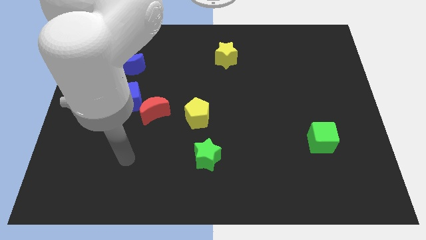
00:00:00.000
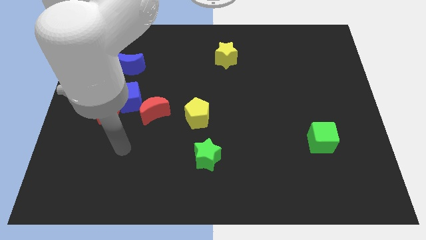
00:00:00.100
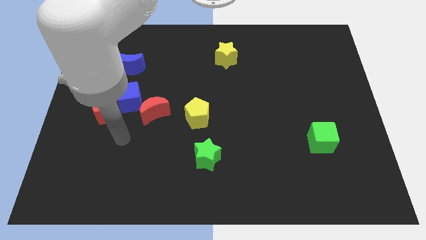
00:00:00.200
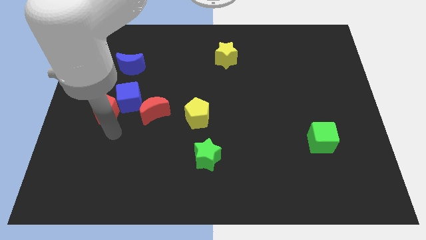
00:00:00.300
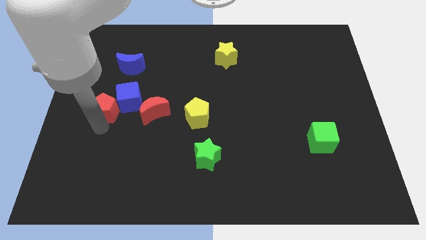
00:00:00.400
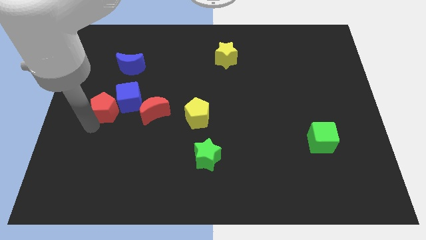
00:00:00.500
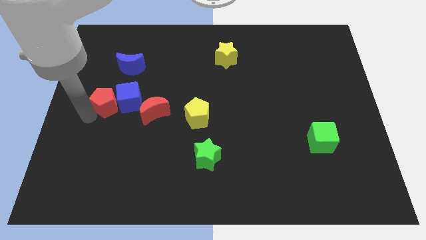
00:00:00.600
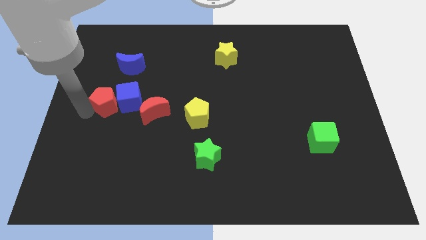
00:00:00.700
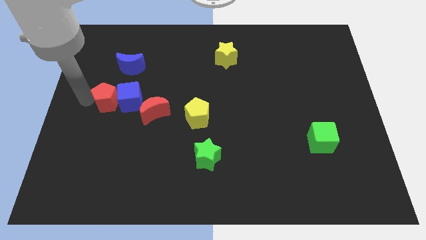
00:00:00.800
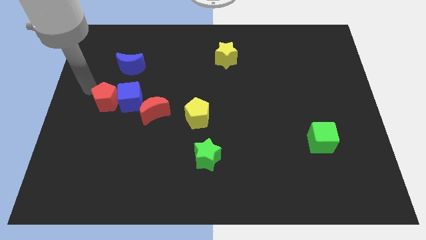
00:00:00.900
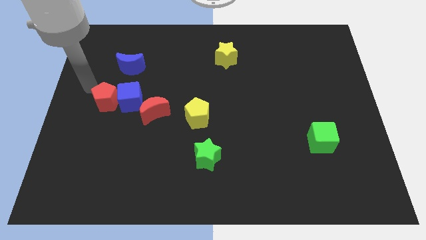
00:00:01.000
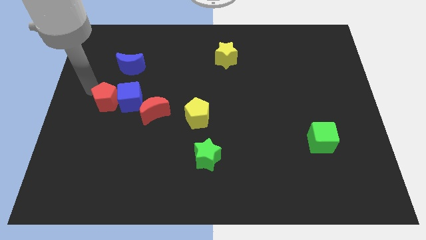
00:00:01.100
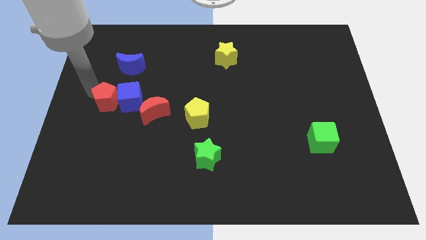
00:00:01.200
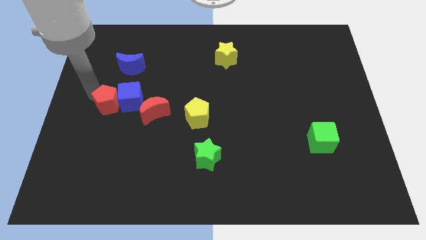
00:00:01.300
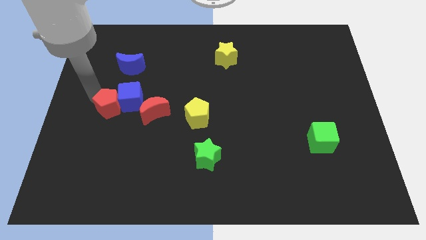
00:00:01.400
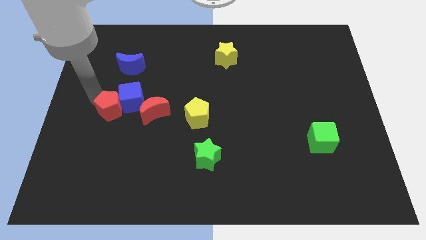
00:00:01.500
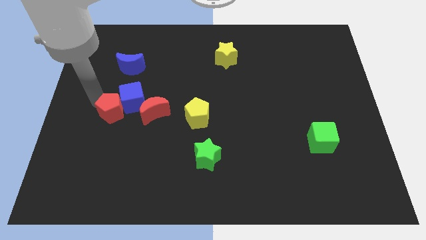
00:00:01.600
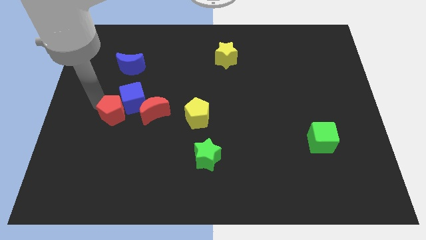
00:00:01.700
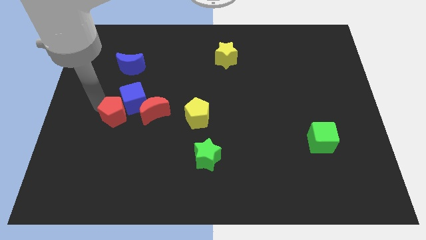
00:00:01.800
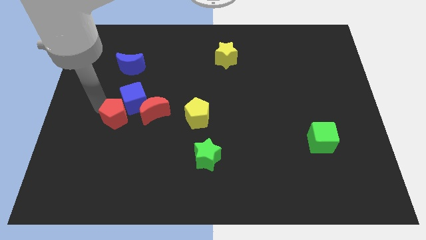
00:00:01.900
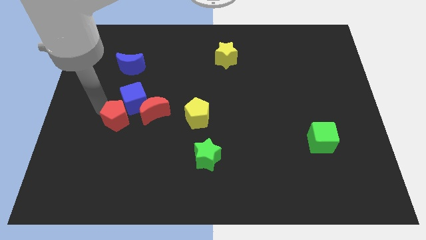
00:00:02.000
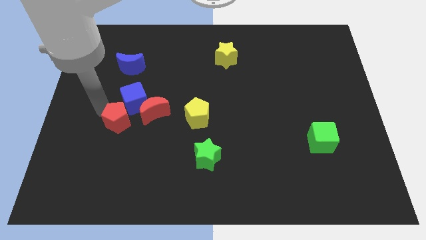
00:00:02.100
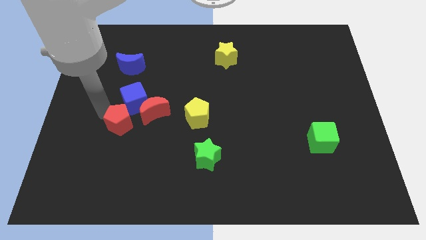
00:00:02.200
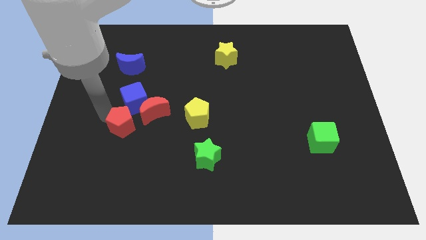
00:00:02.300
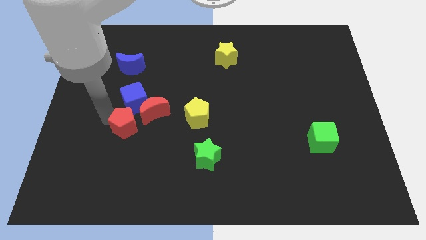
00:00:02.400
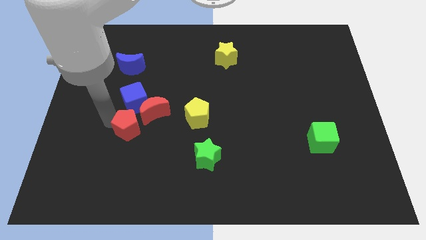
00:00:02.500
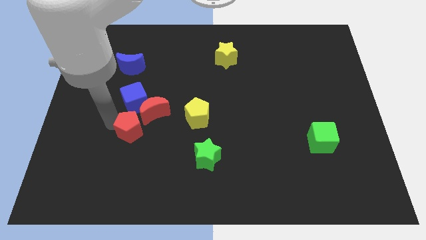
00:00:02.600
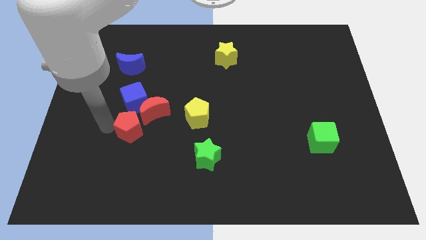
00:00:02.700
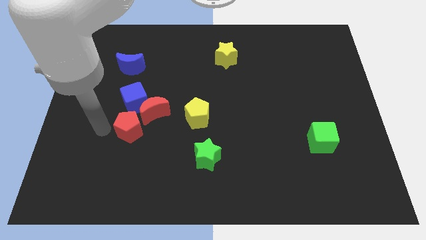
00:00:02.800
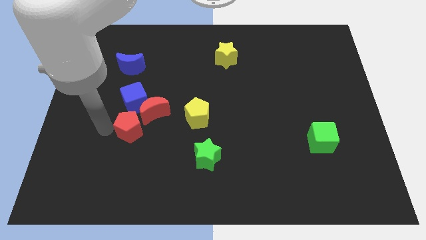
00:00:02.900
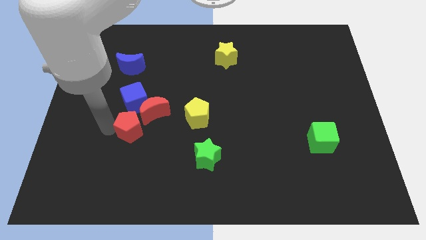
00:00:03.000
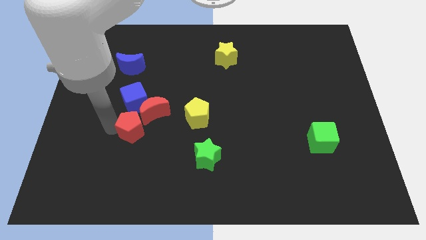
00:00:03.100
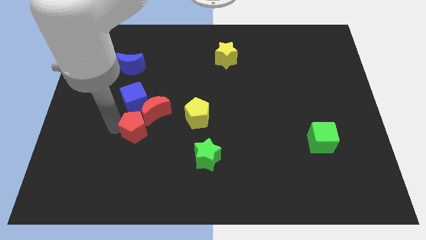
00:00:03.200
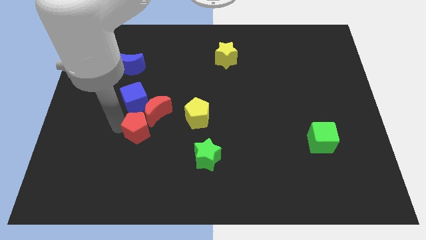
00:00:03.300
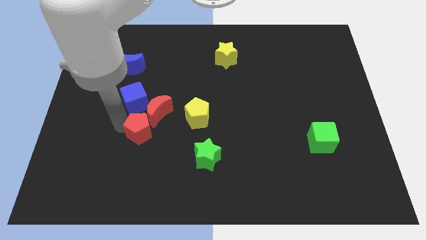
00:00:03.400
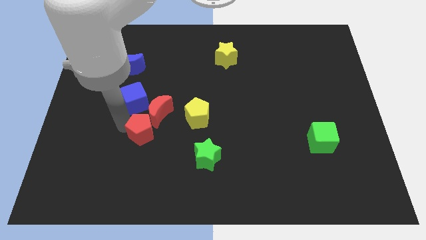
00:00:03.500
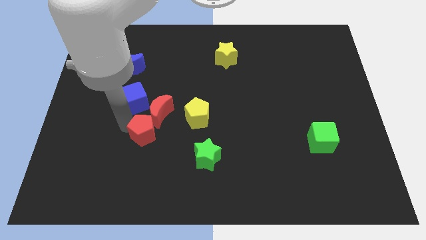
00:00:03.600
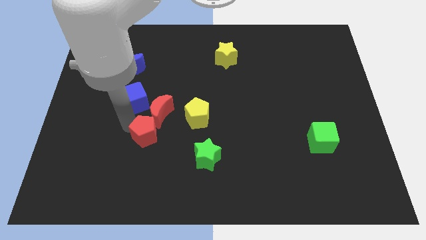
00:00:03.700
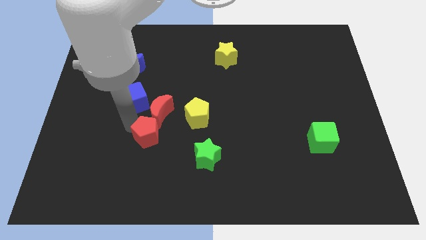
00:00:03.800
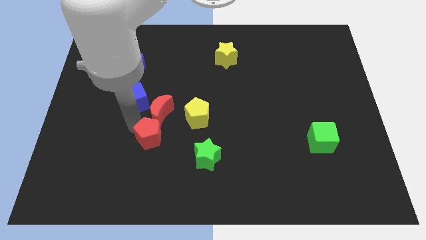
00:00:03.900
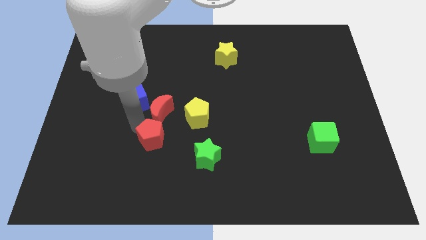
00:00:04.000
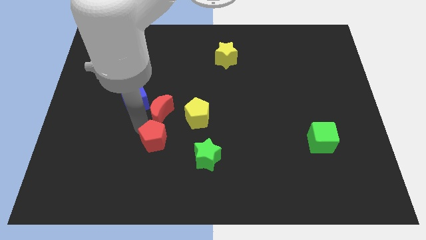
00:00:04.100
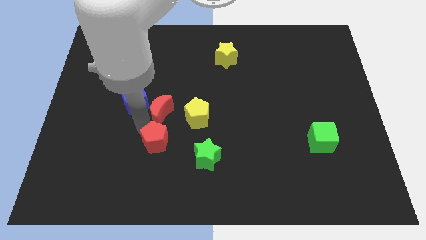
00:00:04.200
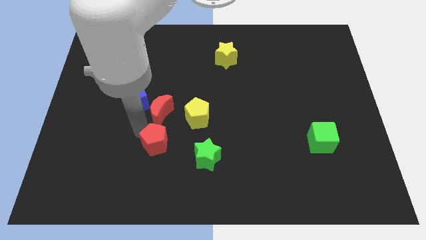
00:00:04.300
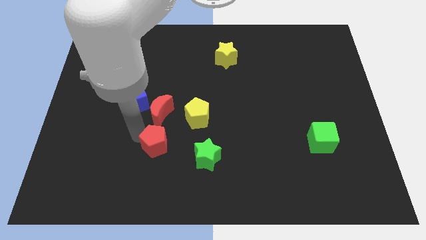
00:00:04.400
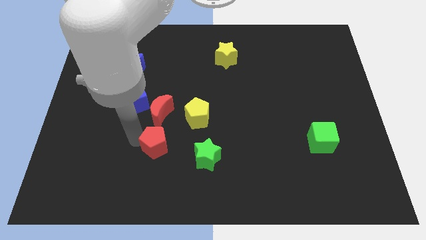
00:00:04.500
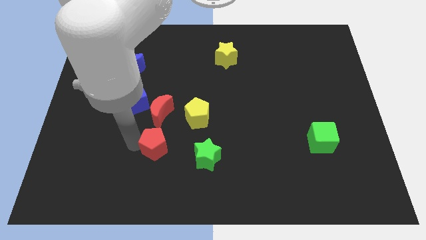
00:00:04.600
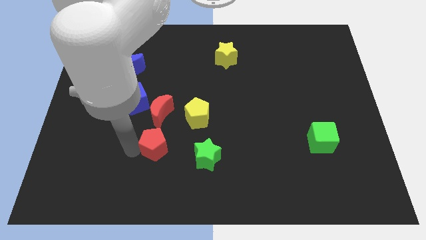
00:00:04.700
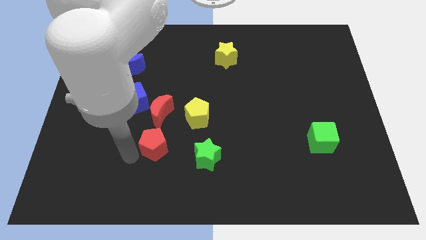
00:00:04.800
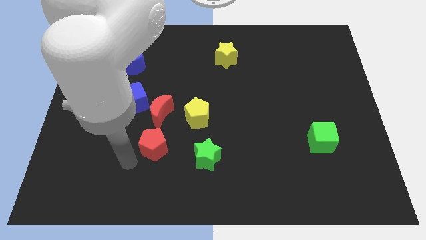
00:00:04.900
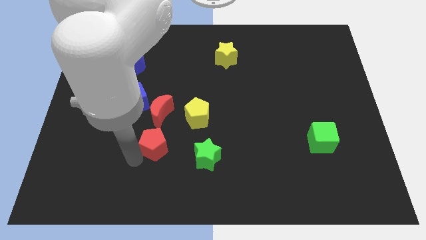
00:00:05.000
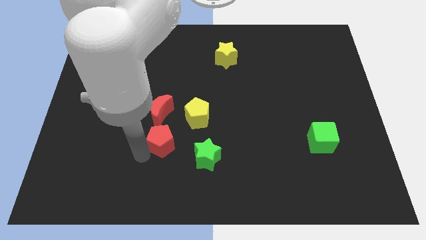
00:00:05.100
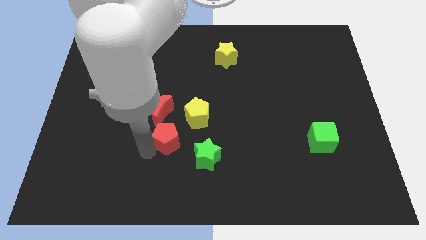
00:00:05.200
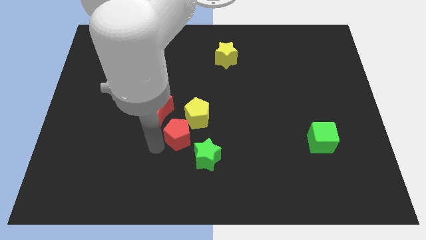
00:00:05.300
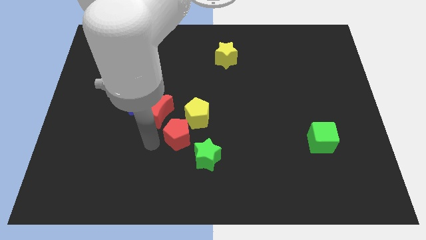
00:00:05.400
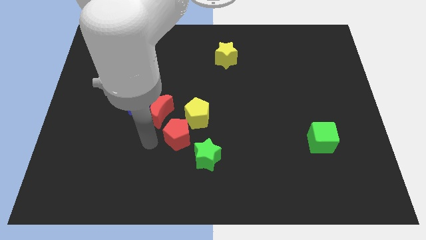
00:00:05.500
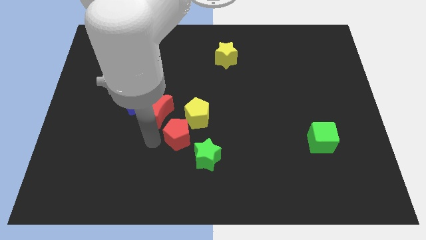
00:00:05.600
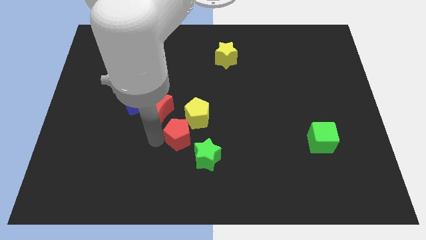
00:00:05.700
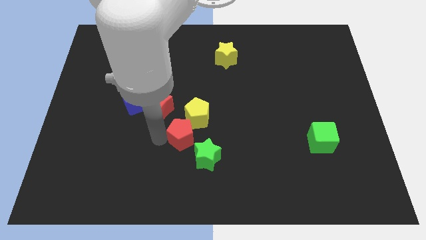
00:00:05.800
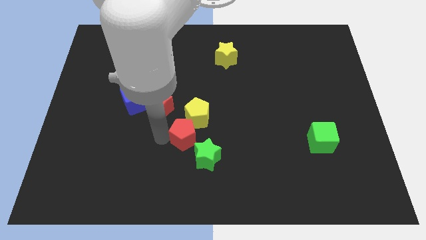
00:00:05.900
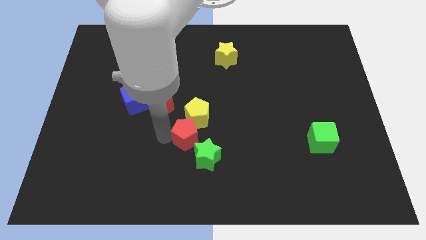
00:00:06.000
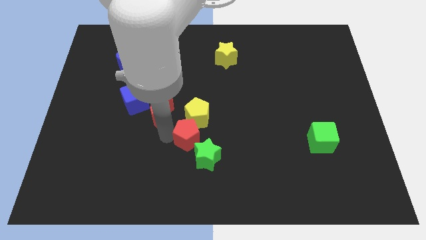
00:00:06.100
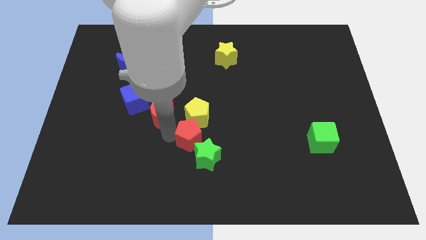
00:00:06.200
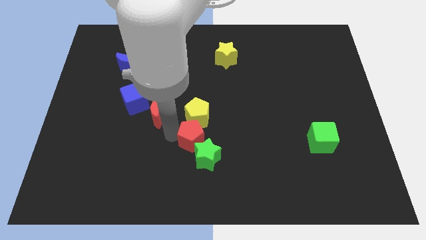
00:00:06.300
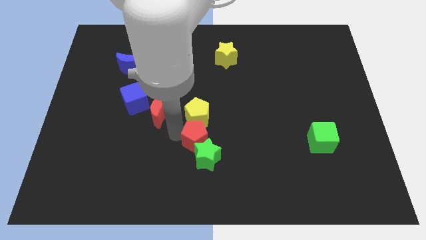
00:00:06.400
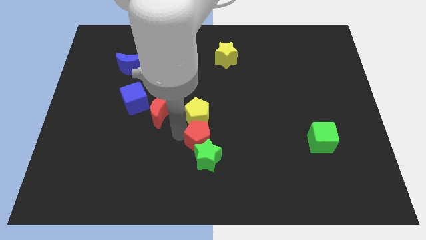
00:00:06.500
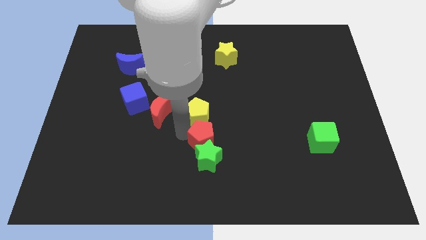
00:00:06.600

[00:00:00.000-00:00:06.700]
move the red pentagon right

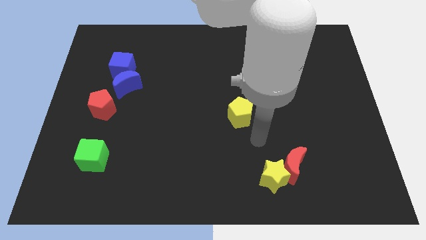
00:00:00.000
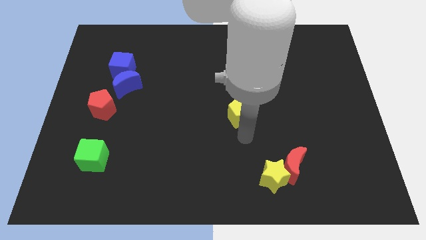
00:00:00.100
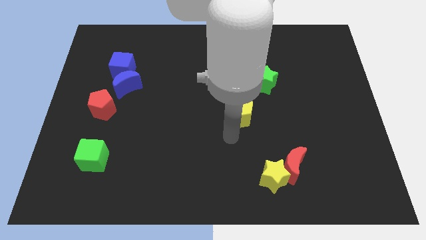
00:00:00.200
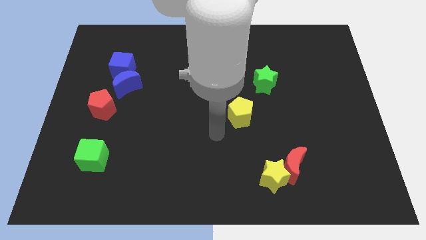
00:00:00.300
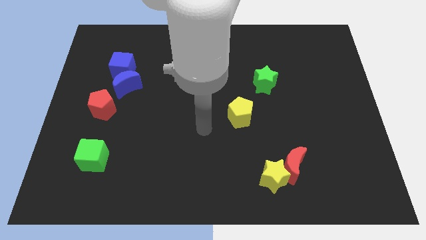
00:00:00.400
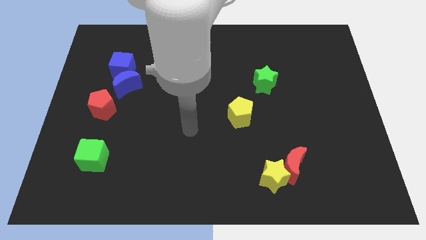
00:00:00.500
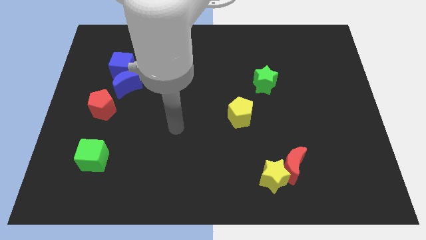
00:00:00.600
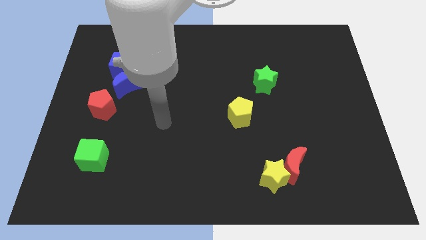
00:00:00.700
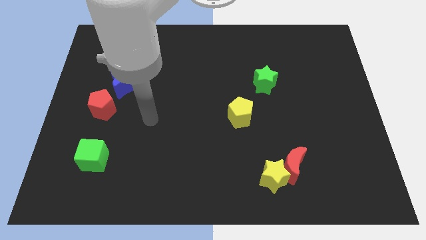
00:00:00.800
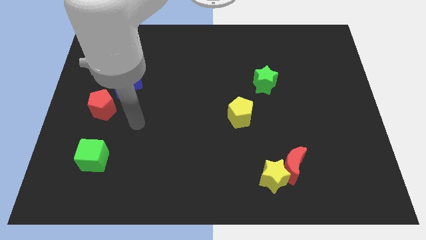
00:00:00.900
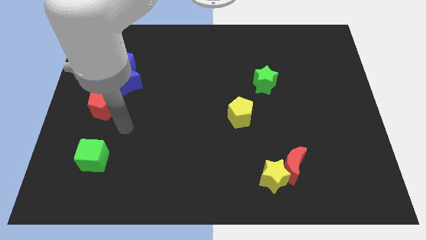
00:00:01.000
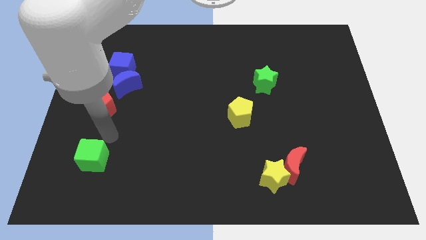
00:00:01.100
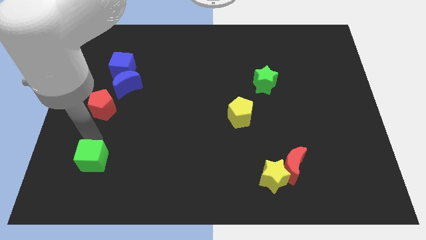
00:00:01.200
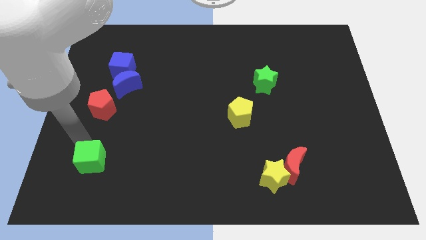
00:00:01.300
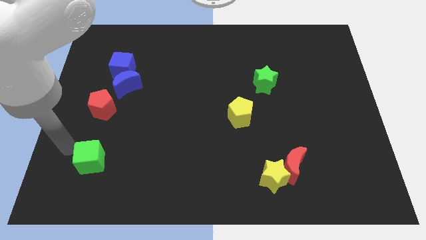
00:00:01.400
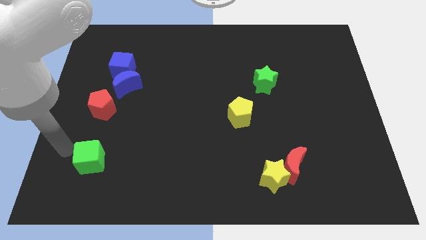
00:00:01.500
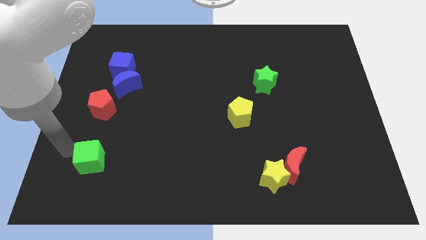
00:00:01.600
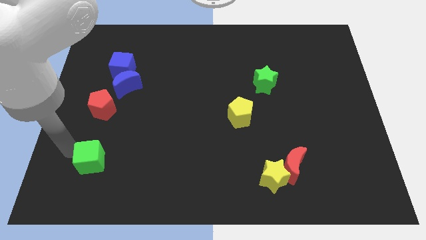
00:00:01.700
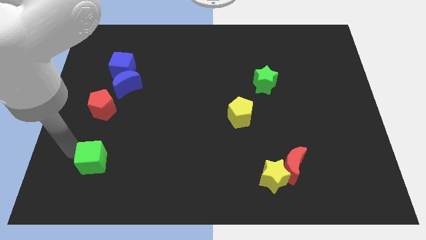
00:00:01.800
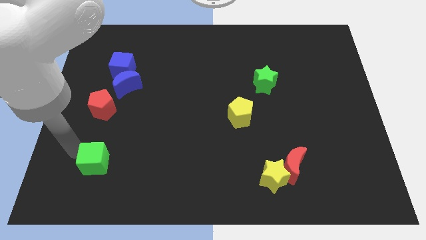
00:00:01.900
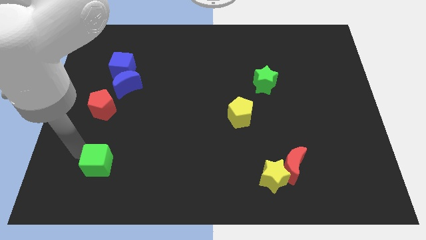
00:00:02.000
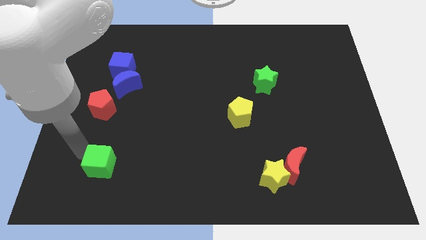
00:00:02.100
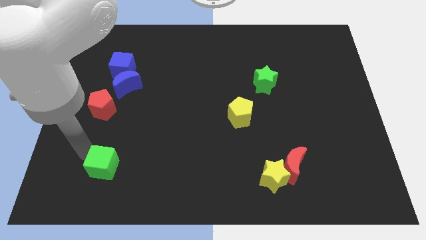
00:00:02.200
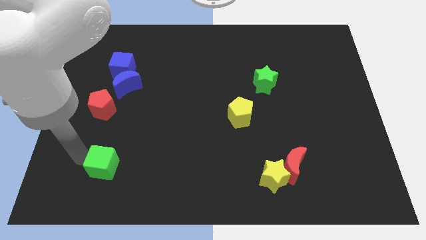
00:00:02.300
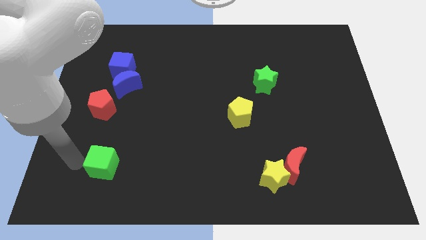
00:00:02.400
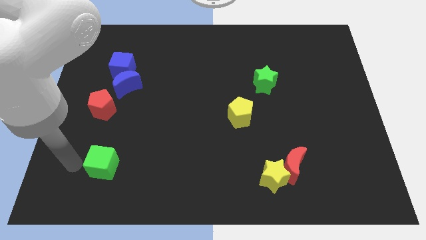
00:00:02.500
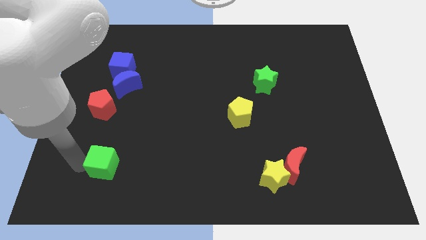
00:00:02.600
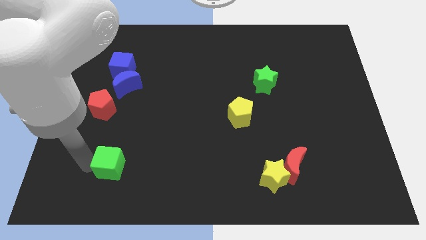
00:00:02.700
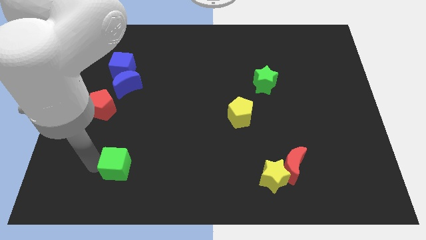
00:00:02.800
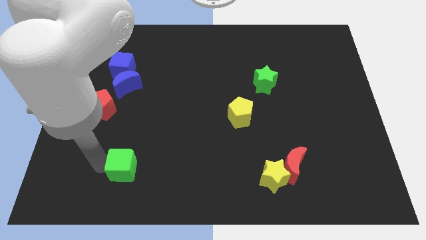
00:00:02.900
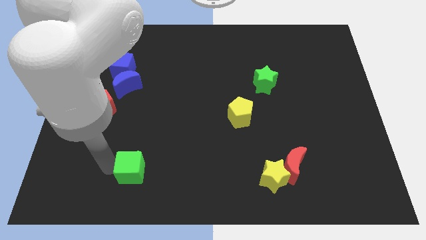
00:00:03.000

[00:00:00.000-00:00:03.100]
move the green cube right a bit
